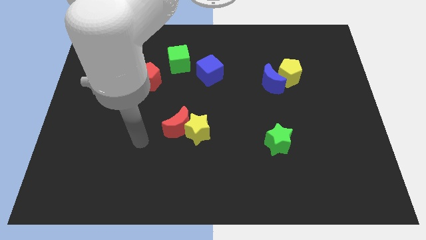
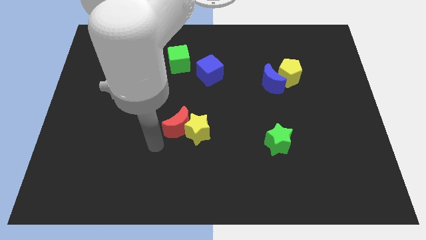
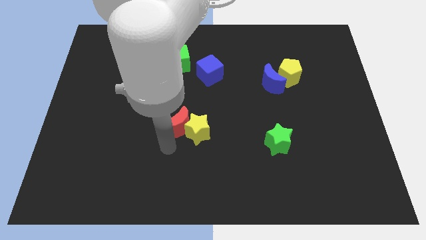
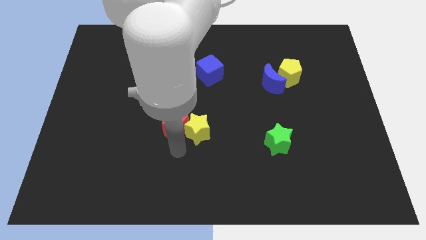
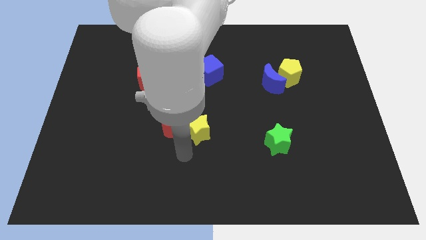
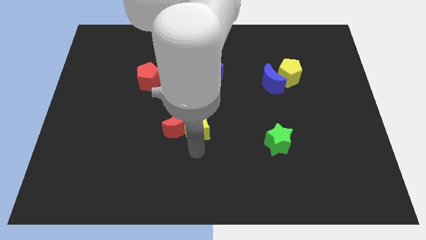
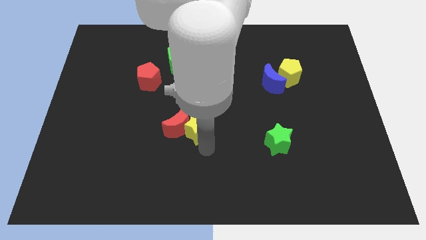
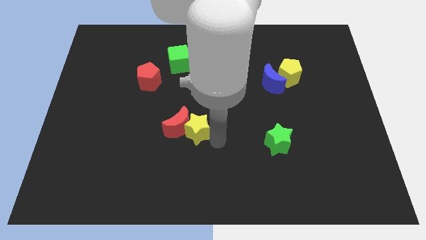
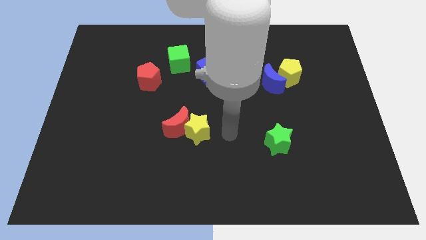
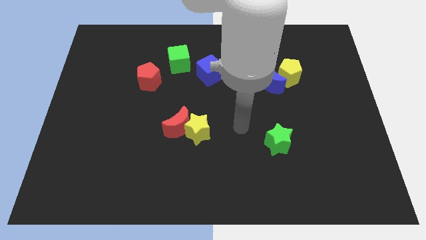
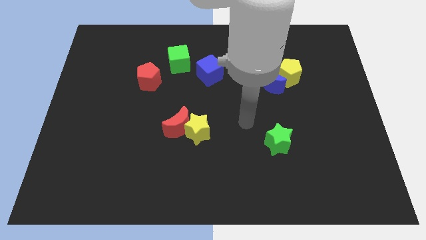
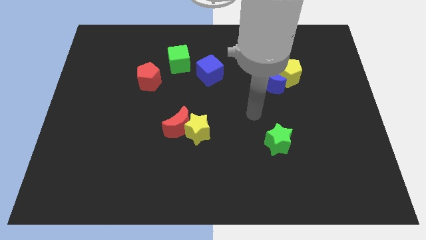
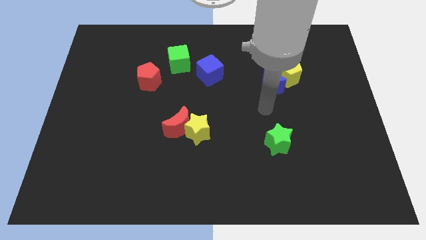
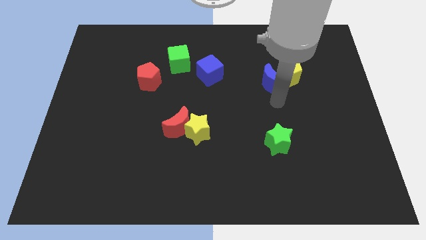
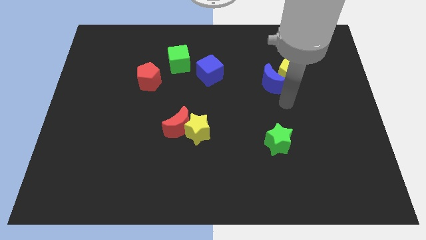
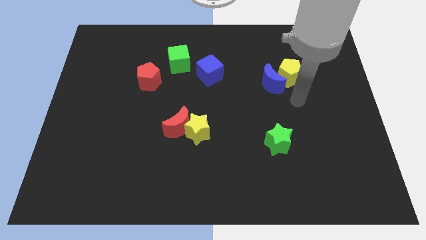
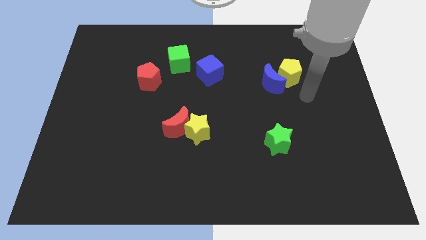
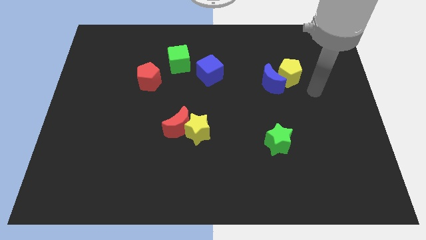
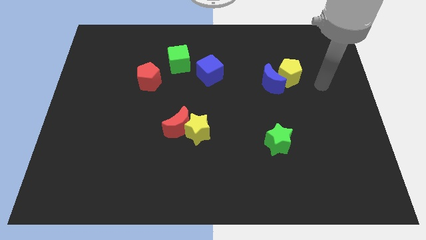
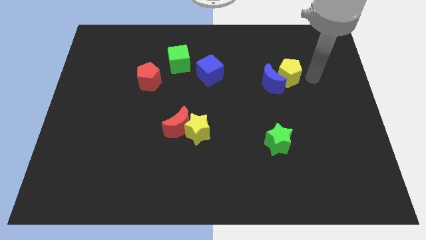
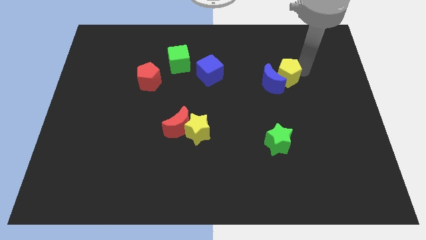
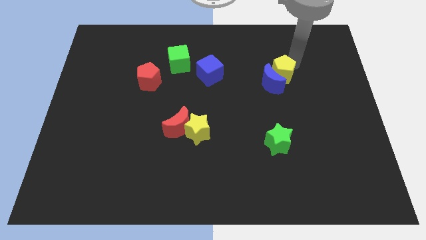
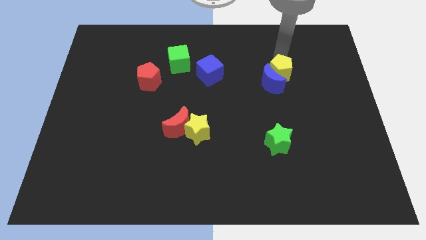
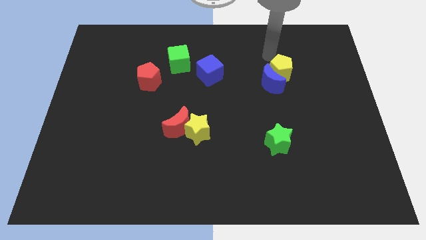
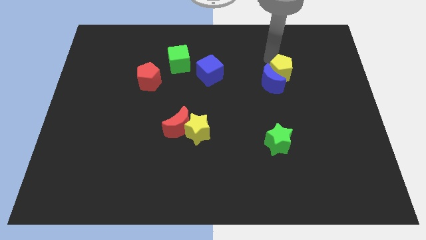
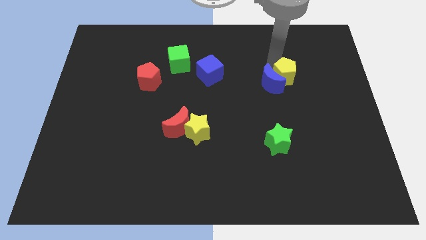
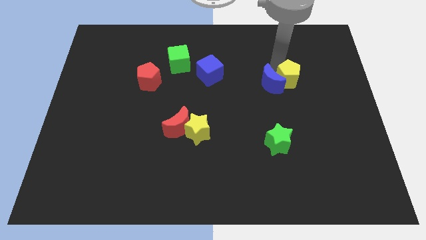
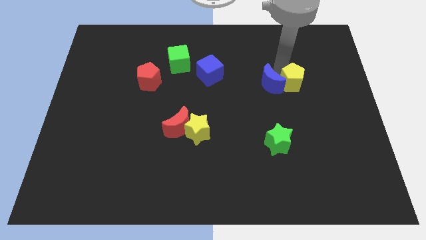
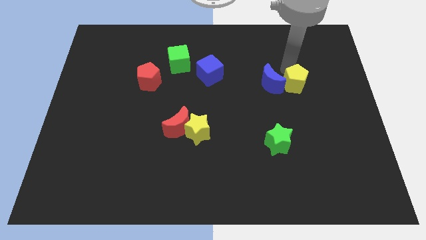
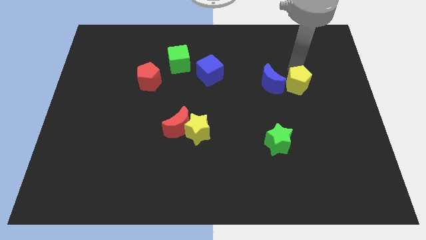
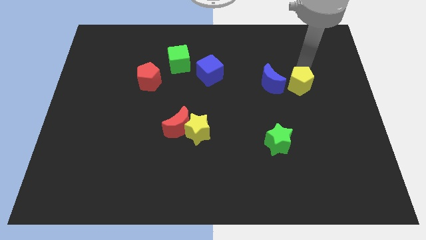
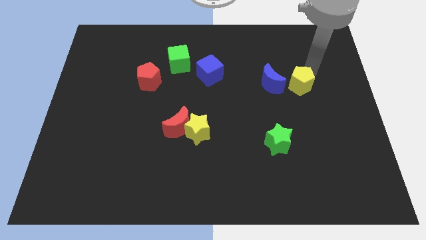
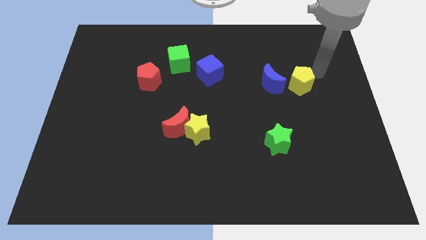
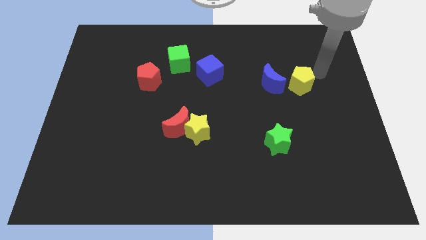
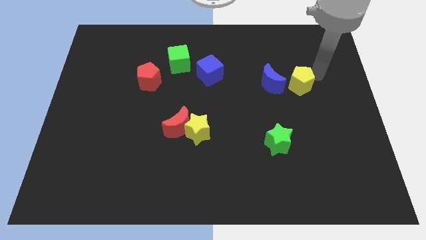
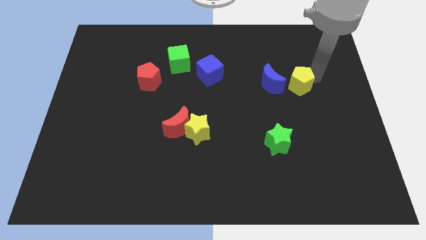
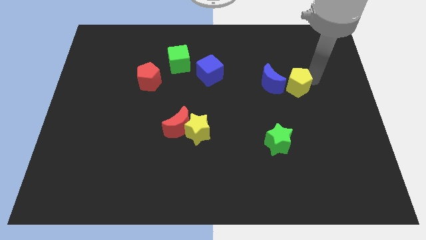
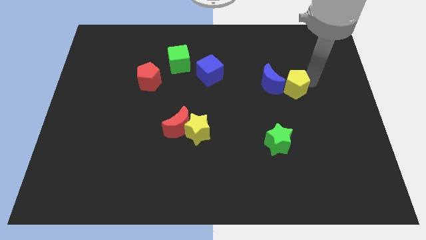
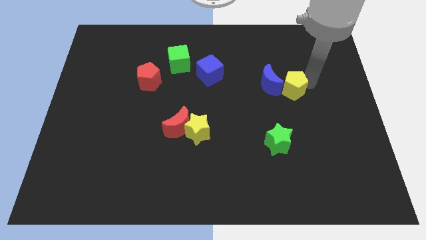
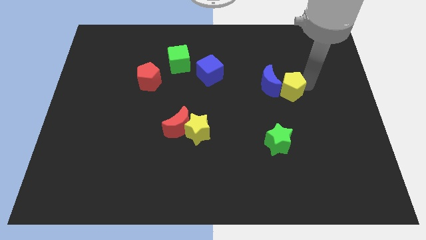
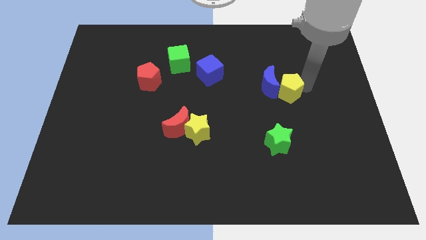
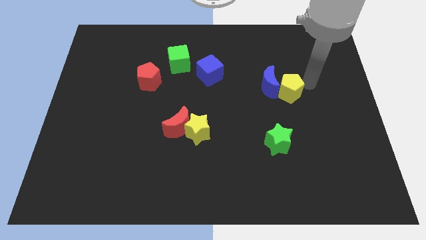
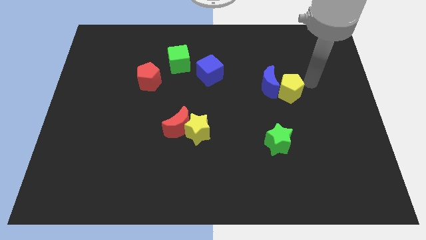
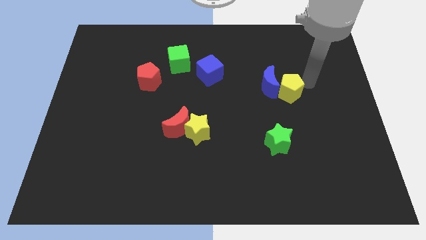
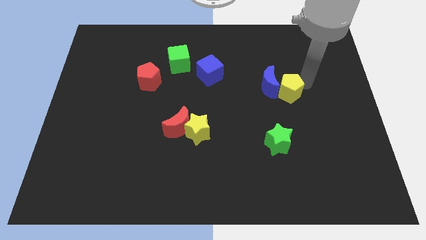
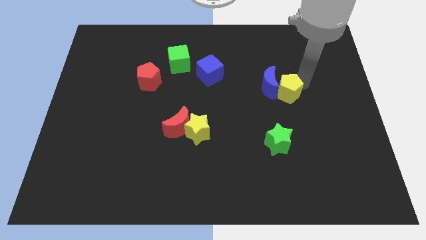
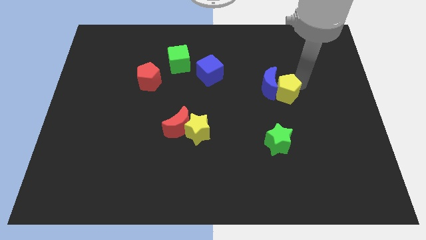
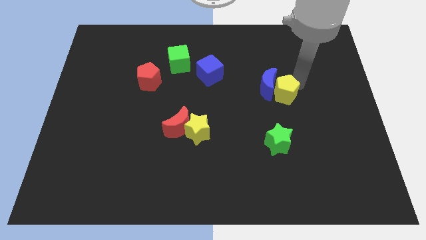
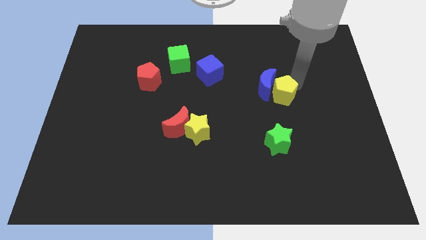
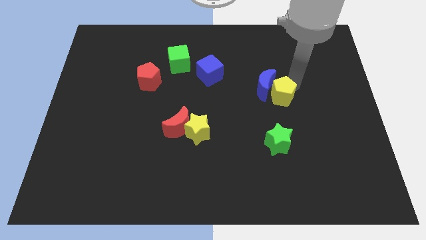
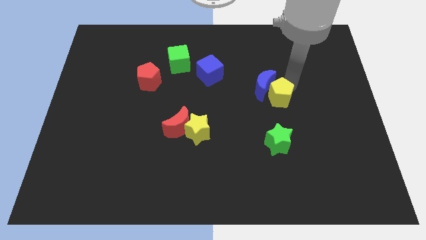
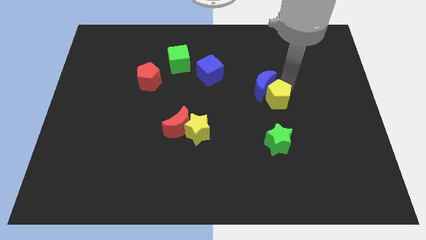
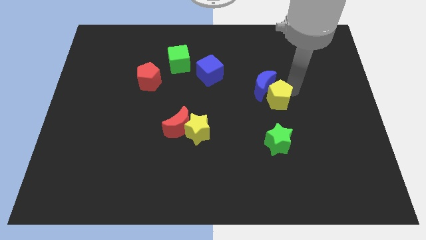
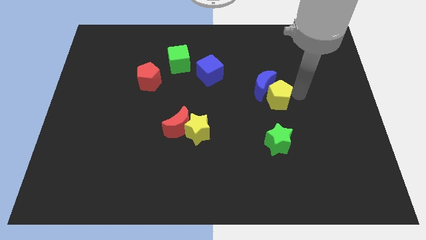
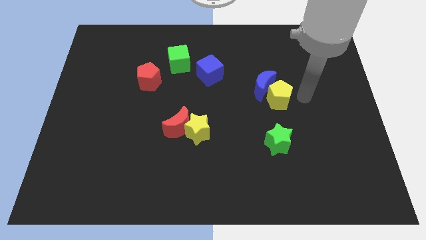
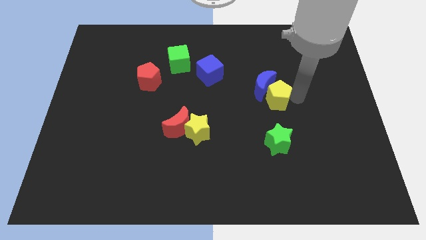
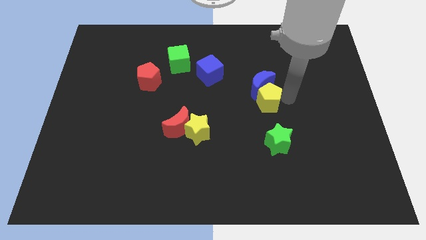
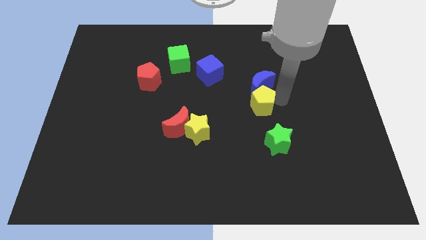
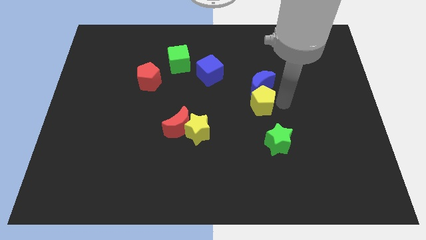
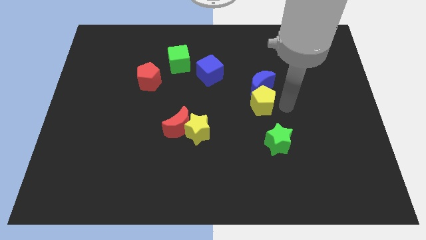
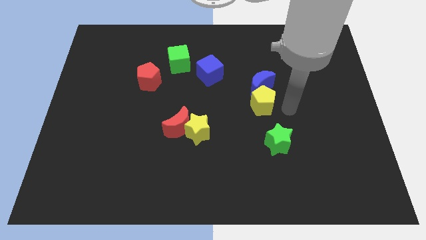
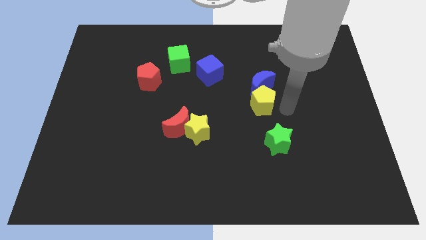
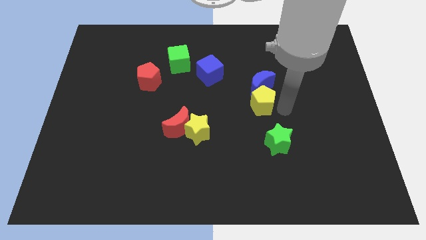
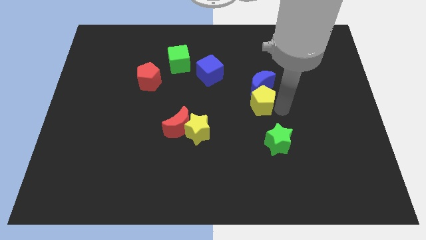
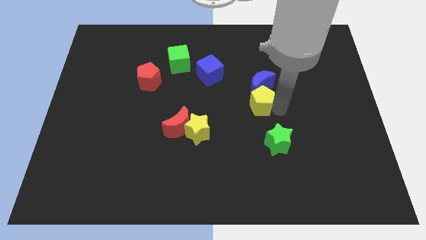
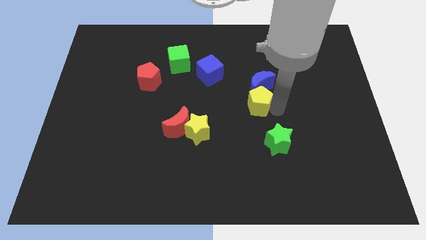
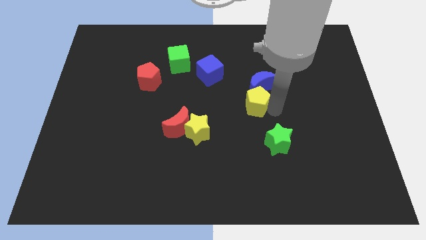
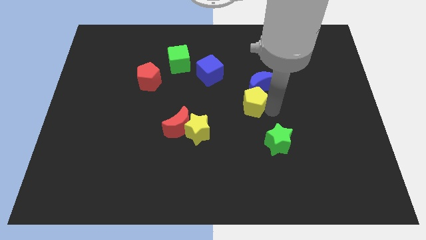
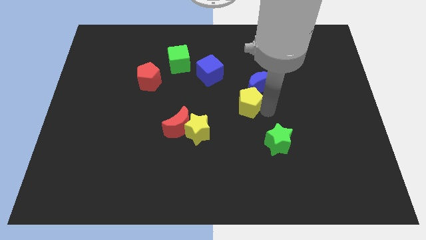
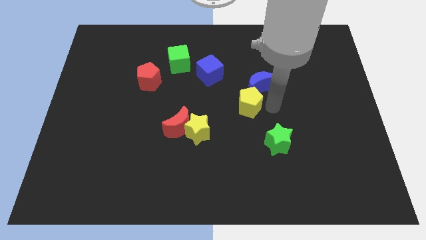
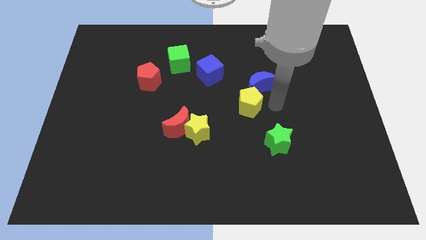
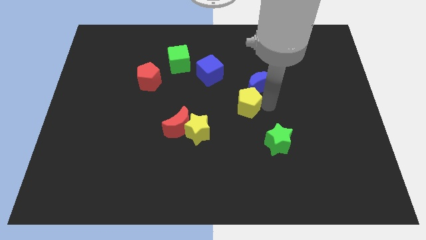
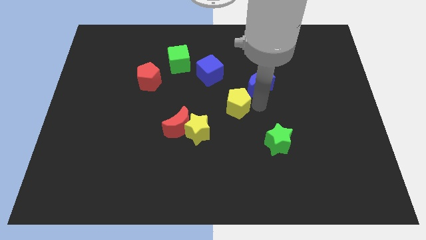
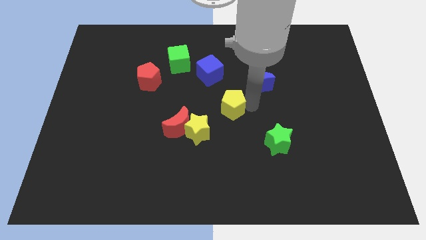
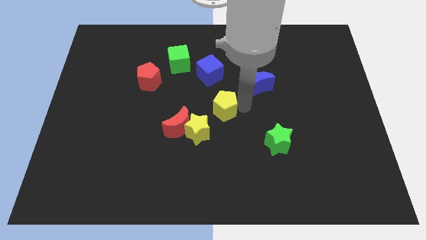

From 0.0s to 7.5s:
slide the yellow pentagon to the bottom of the blue cube

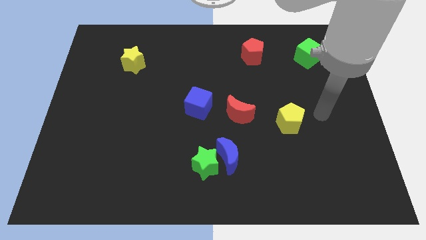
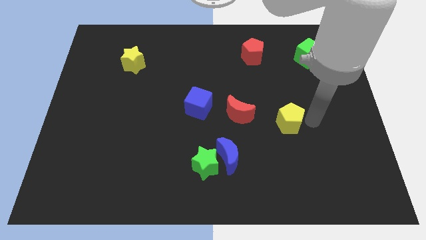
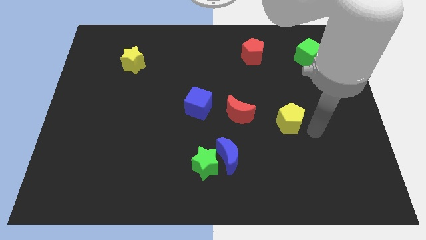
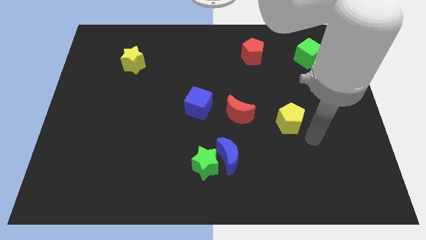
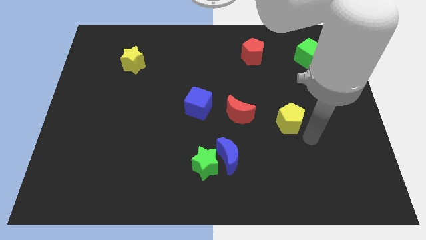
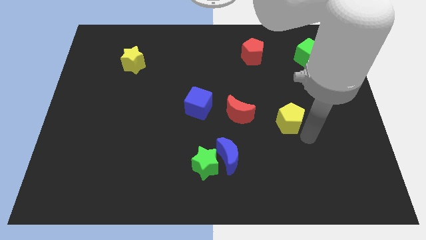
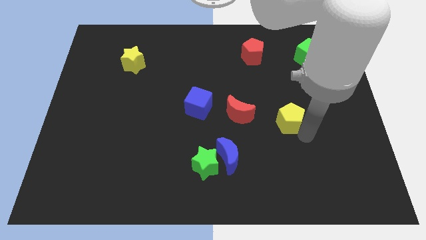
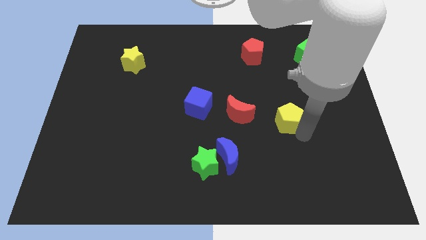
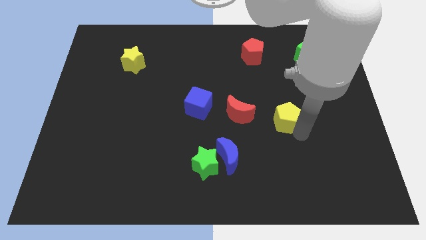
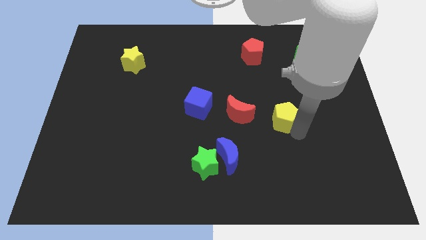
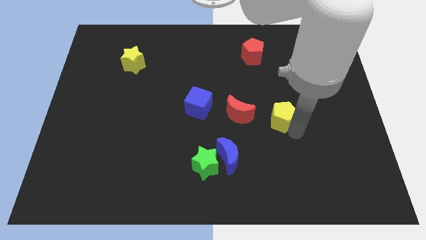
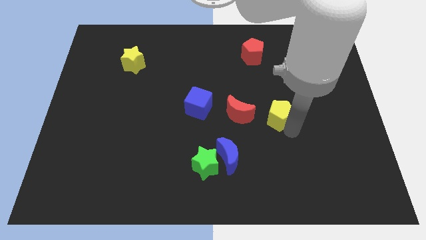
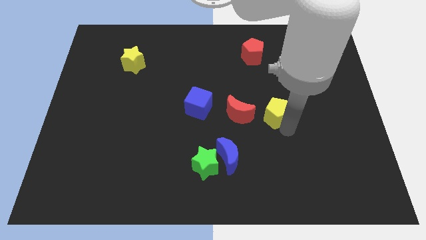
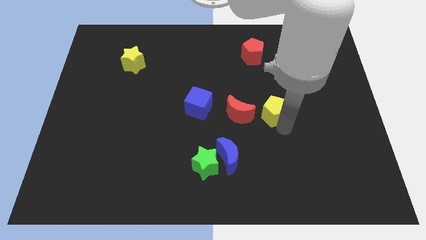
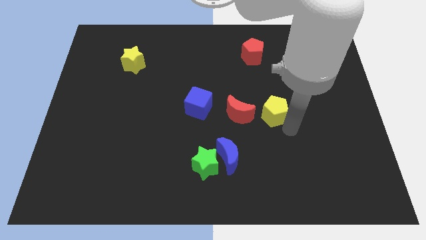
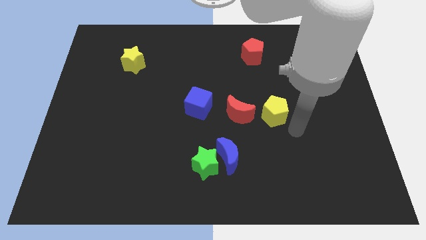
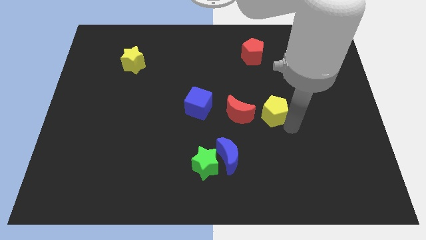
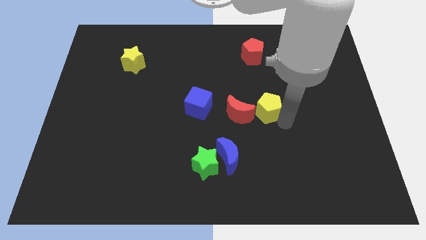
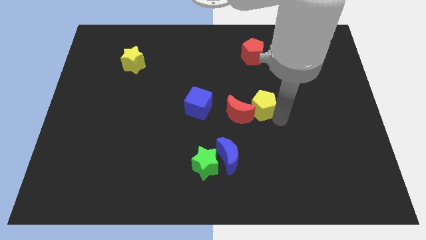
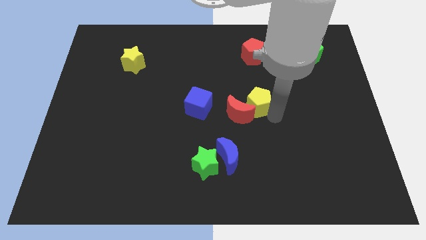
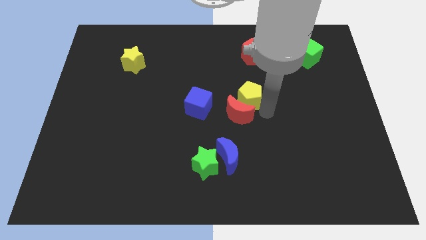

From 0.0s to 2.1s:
push the yellow pentagon to the top side of the red moon
